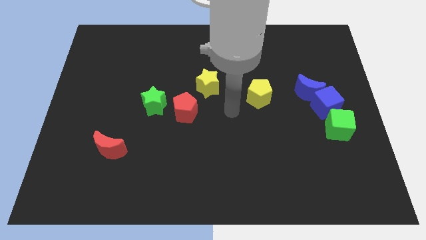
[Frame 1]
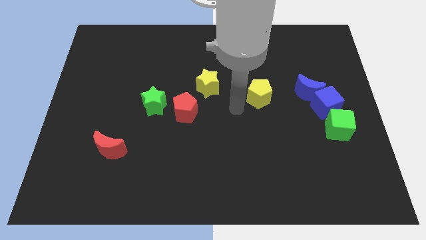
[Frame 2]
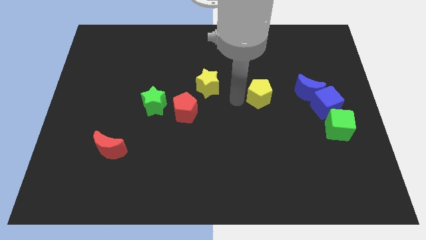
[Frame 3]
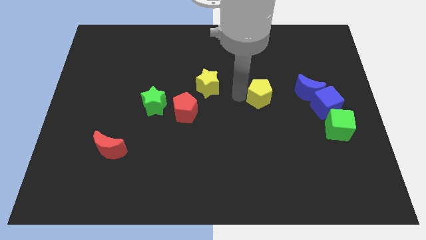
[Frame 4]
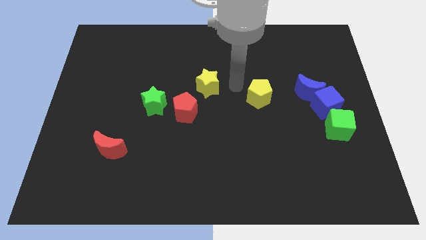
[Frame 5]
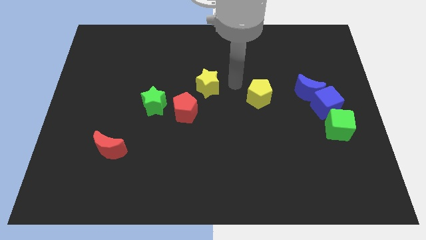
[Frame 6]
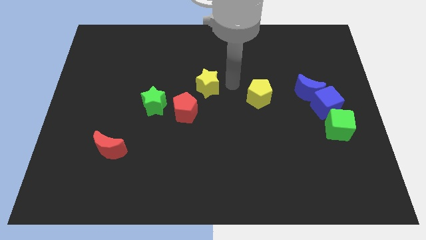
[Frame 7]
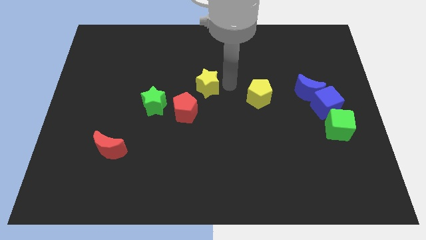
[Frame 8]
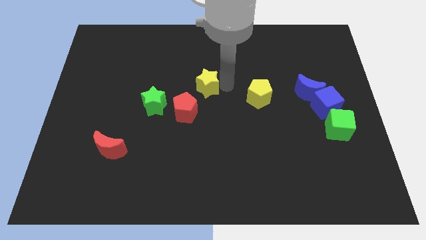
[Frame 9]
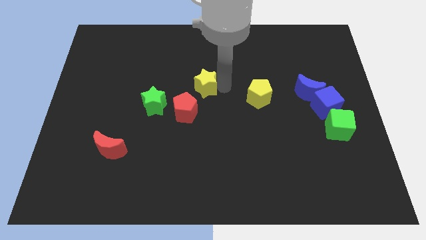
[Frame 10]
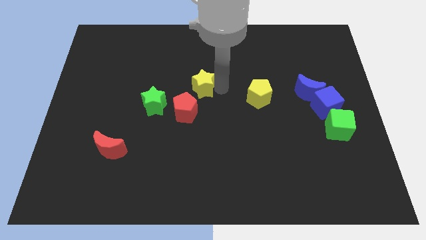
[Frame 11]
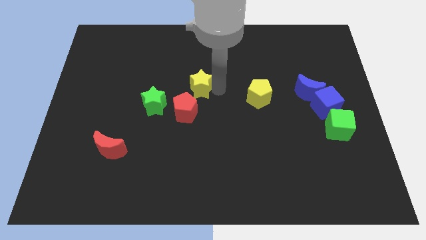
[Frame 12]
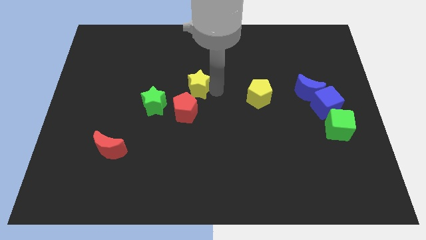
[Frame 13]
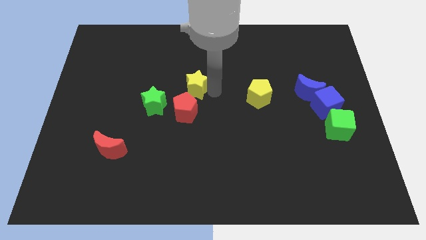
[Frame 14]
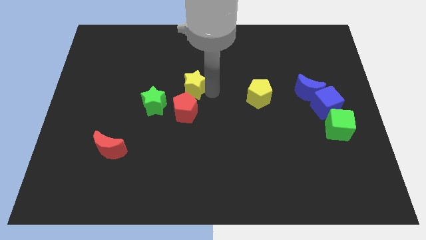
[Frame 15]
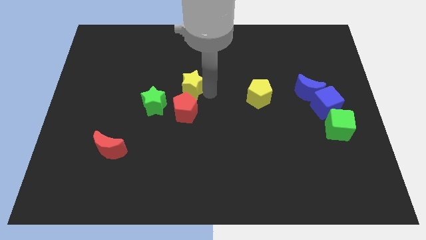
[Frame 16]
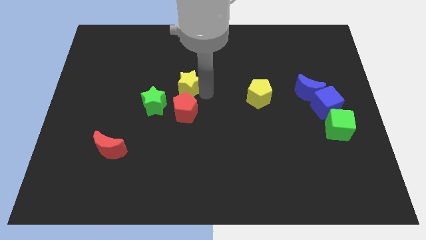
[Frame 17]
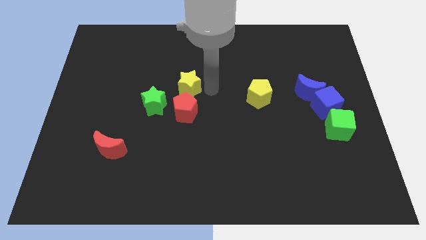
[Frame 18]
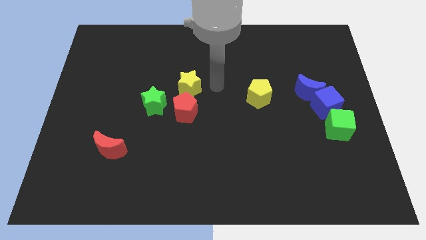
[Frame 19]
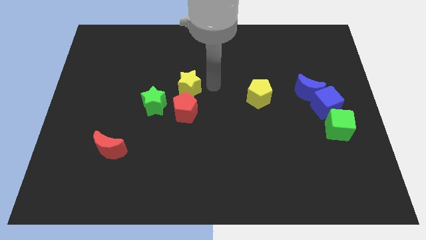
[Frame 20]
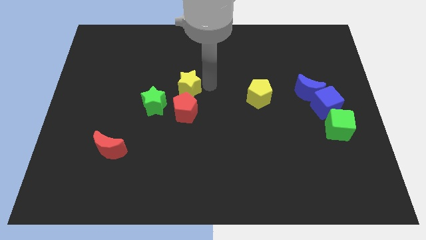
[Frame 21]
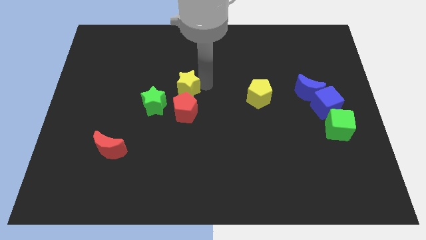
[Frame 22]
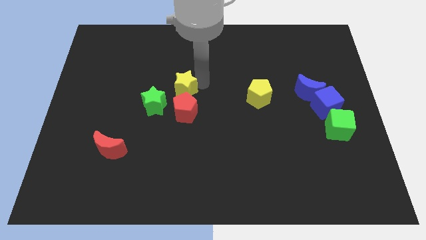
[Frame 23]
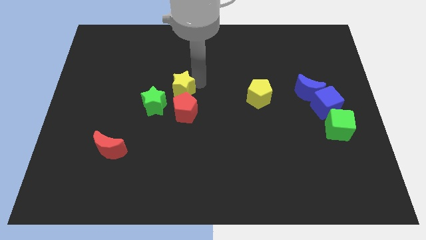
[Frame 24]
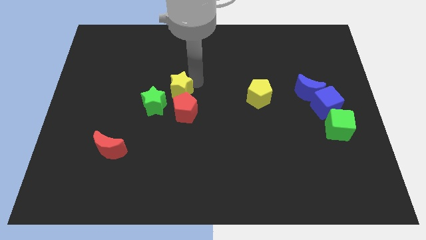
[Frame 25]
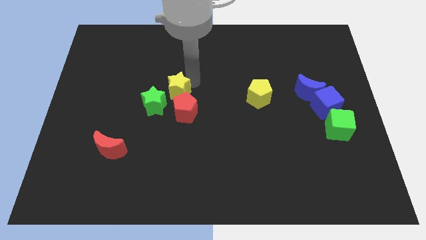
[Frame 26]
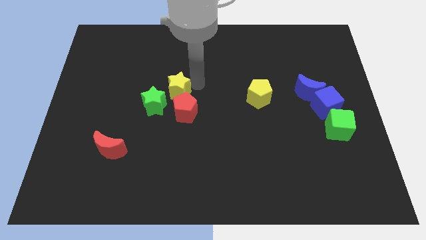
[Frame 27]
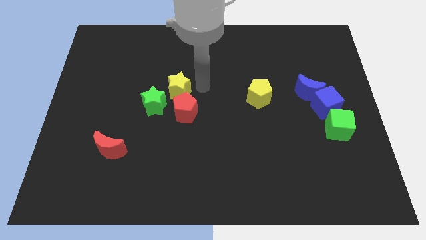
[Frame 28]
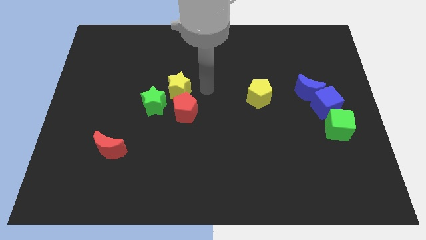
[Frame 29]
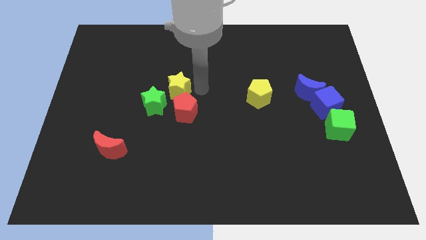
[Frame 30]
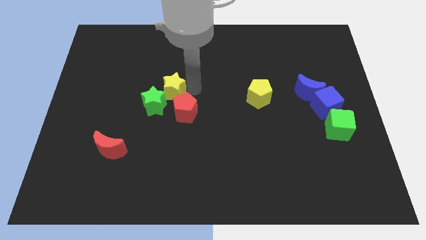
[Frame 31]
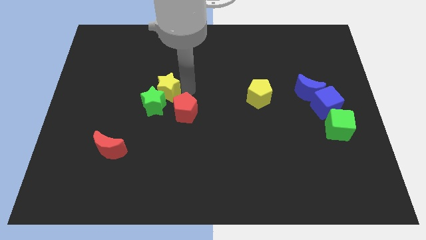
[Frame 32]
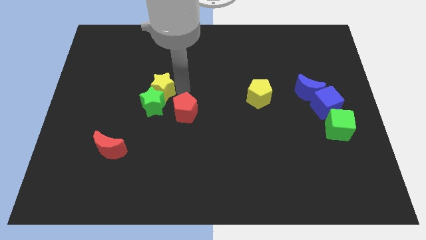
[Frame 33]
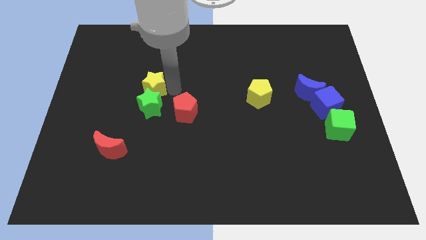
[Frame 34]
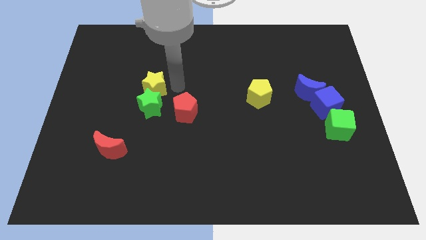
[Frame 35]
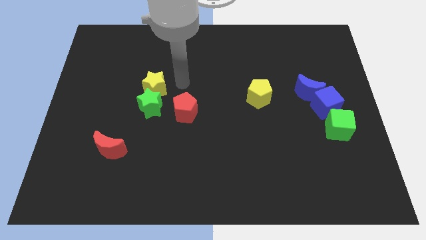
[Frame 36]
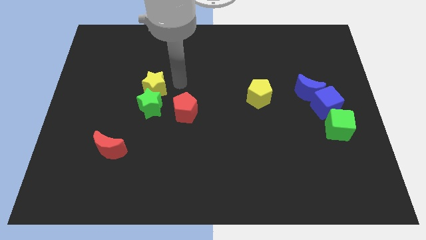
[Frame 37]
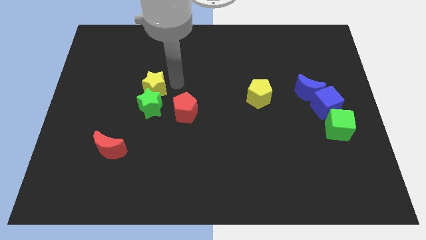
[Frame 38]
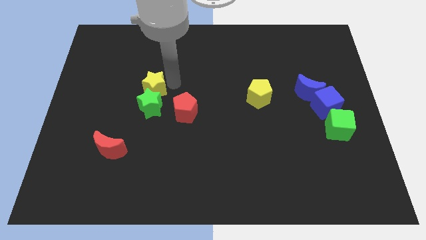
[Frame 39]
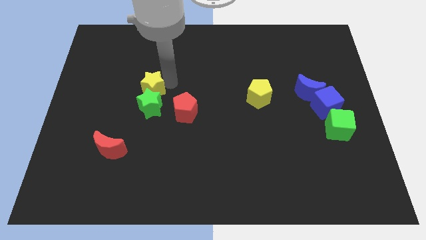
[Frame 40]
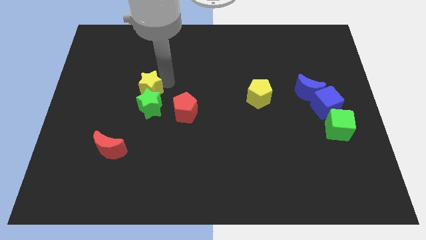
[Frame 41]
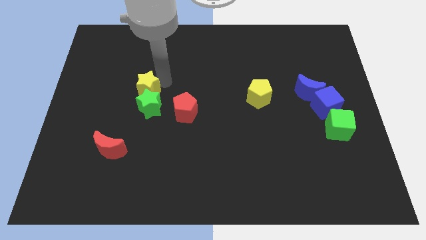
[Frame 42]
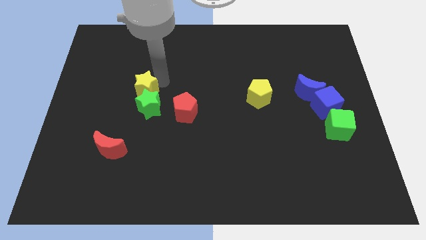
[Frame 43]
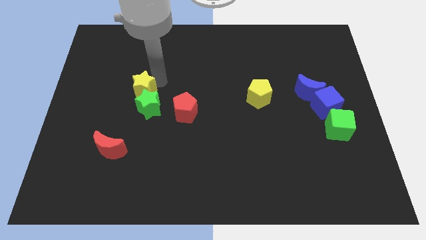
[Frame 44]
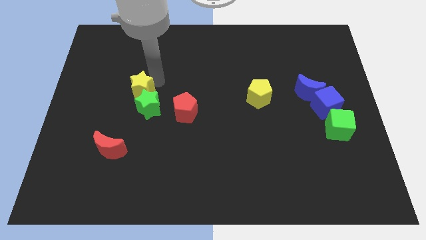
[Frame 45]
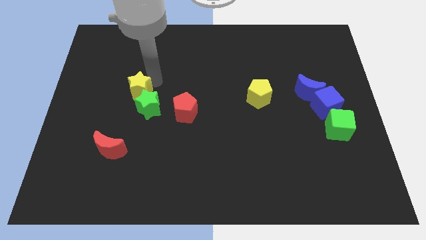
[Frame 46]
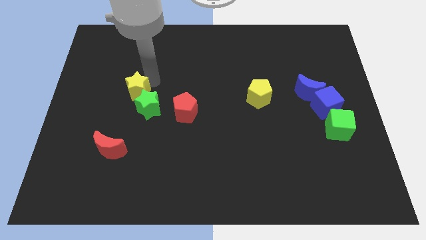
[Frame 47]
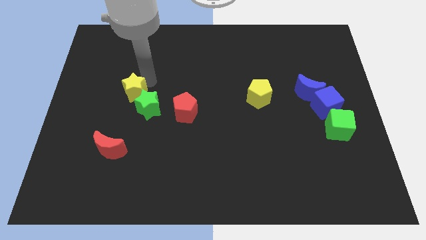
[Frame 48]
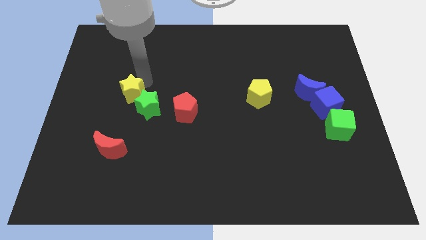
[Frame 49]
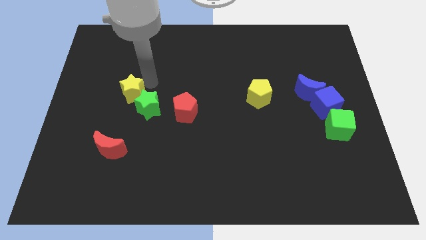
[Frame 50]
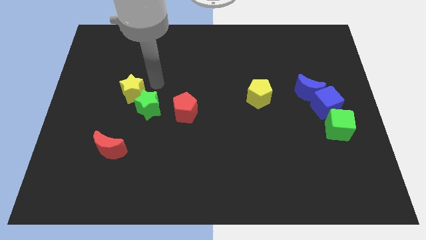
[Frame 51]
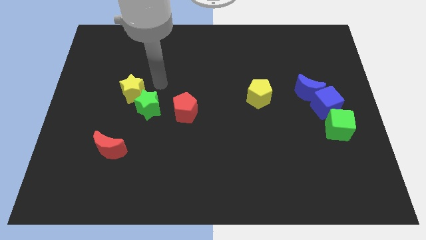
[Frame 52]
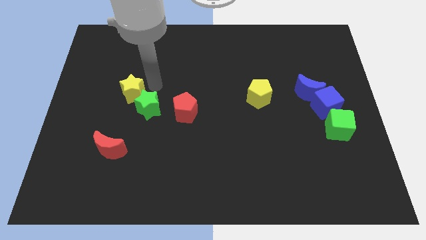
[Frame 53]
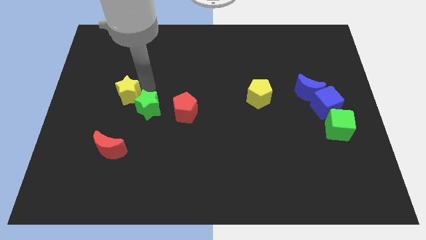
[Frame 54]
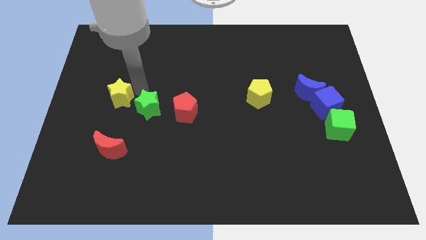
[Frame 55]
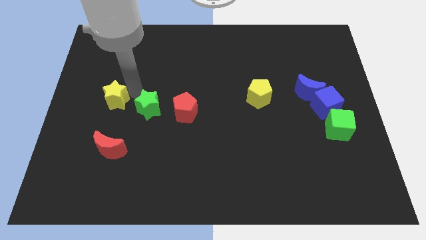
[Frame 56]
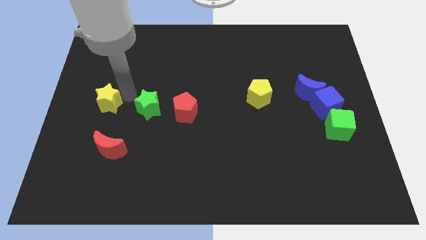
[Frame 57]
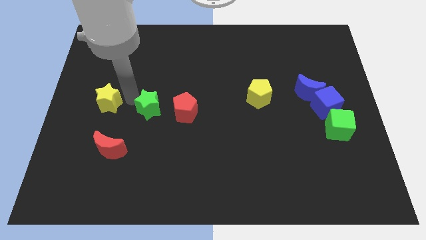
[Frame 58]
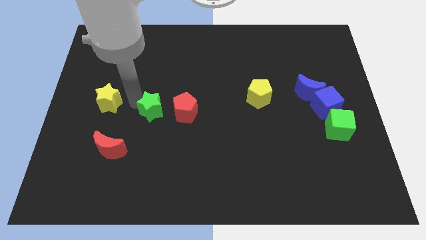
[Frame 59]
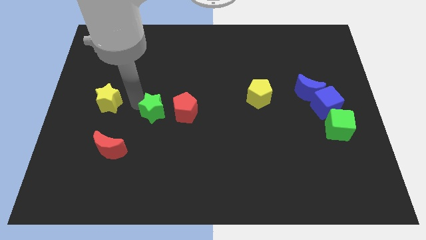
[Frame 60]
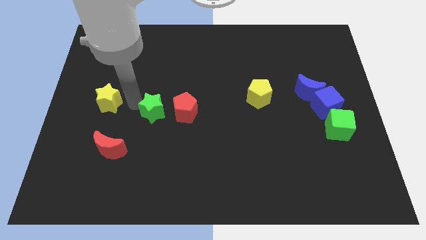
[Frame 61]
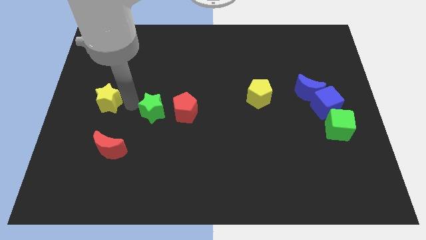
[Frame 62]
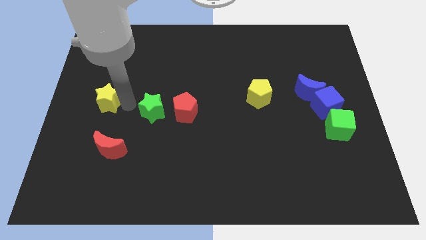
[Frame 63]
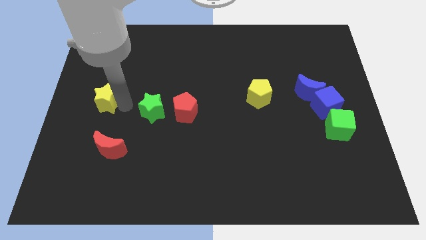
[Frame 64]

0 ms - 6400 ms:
move the yellow star to the center left

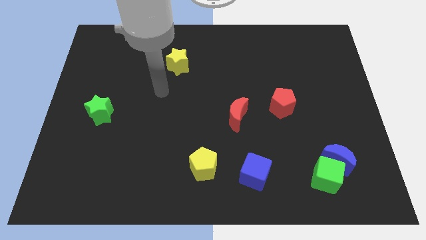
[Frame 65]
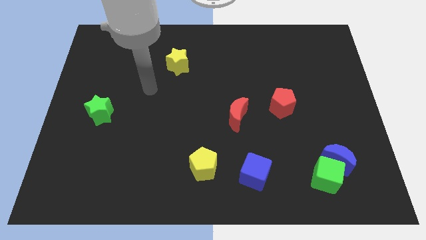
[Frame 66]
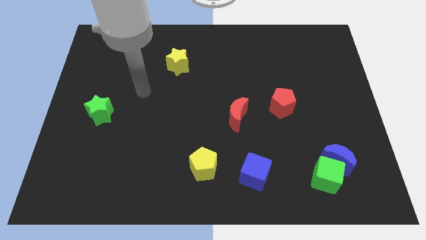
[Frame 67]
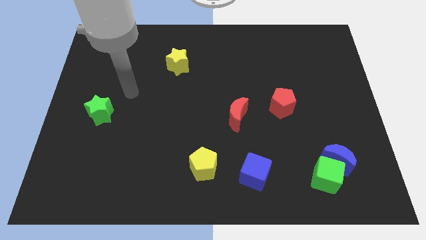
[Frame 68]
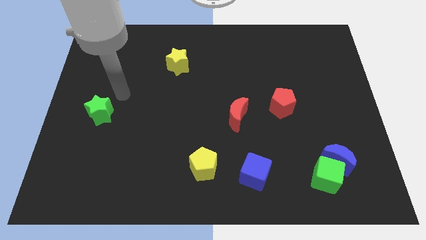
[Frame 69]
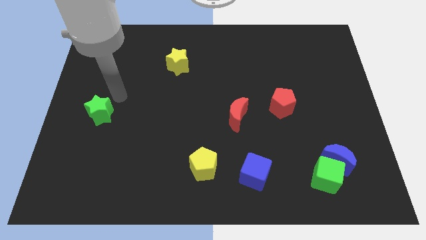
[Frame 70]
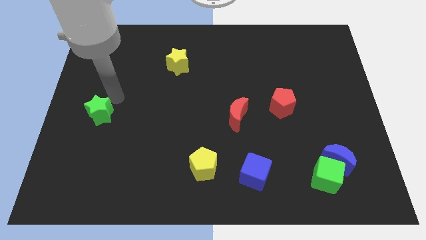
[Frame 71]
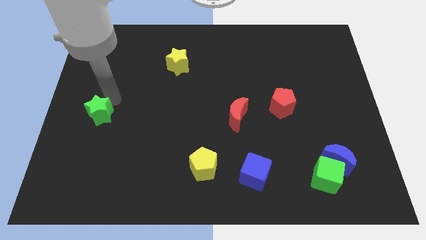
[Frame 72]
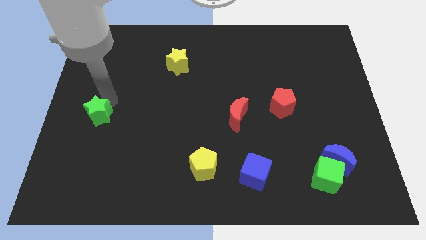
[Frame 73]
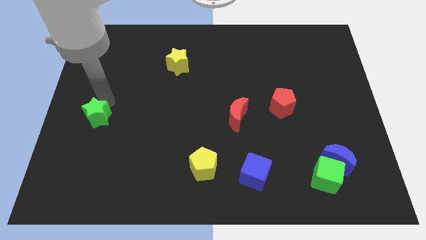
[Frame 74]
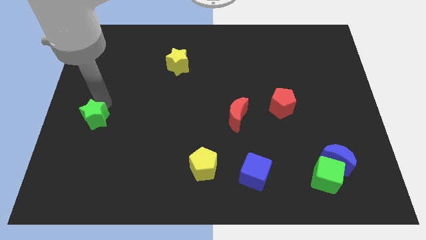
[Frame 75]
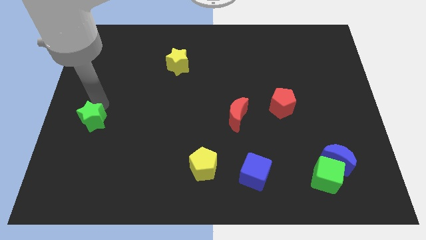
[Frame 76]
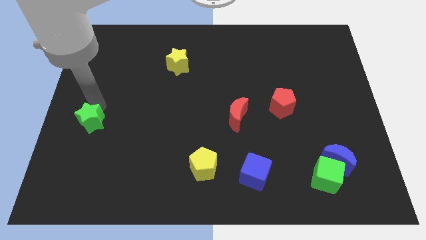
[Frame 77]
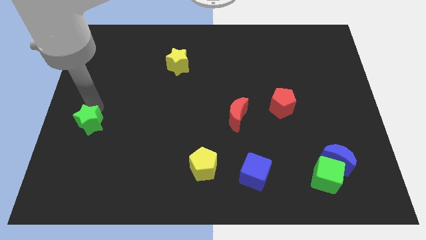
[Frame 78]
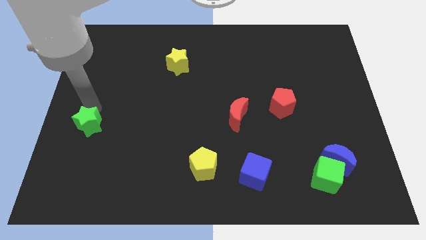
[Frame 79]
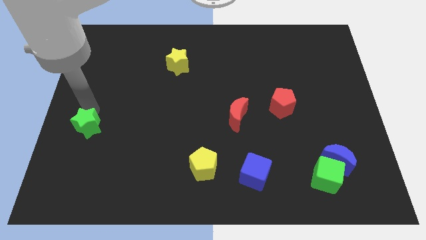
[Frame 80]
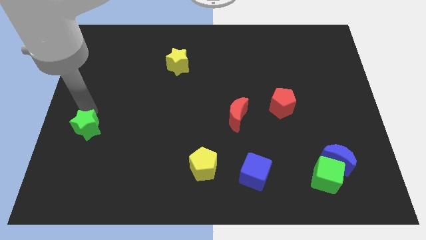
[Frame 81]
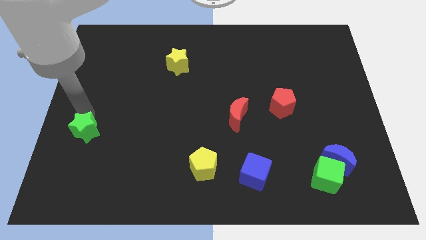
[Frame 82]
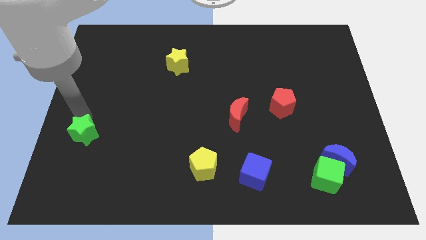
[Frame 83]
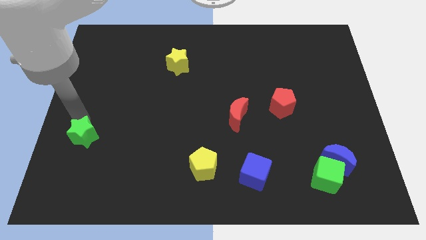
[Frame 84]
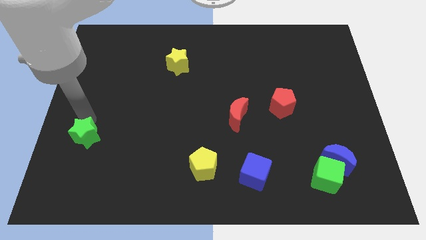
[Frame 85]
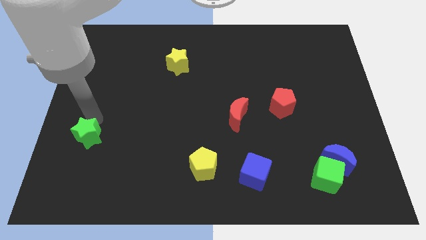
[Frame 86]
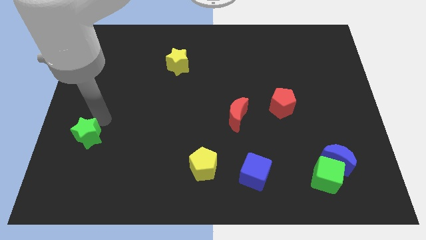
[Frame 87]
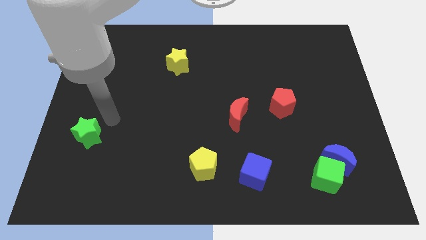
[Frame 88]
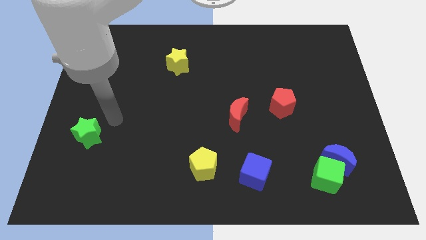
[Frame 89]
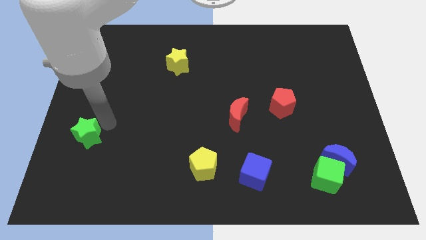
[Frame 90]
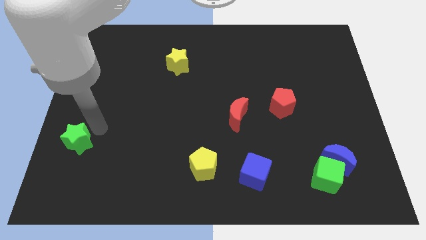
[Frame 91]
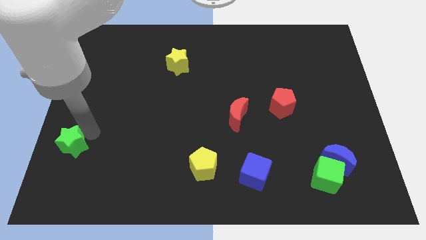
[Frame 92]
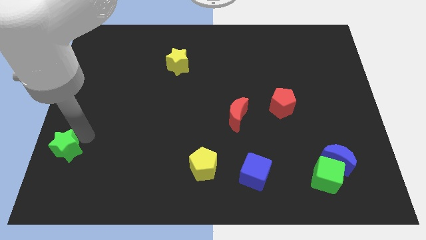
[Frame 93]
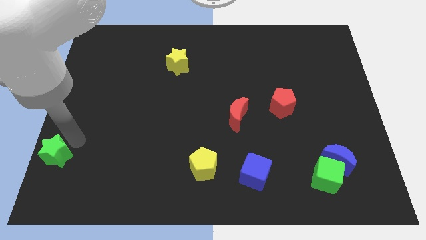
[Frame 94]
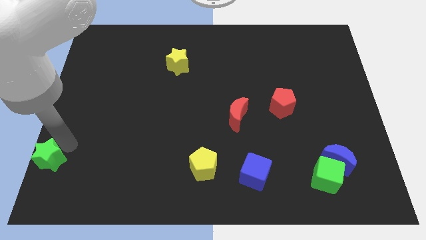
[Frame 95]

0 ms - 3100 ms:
put the green star to the bottom left
